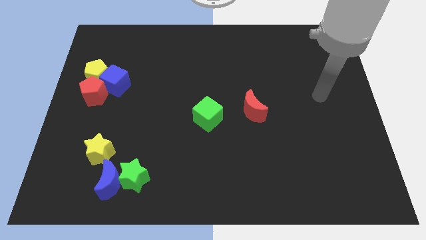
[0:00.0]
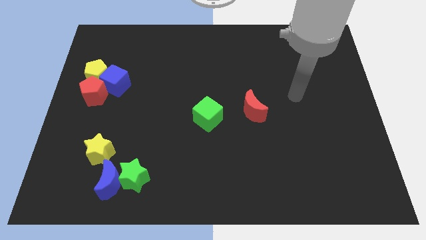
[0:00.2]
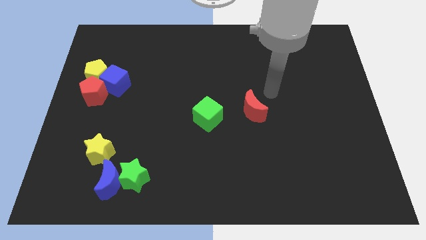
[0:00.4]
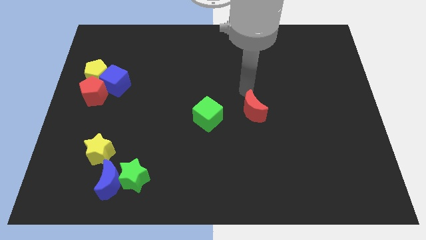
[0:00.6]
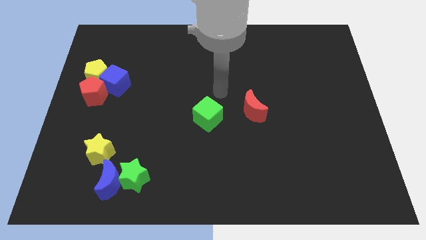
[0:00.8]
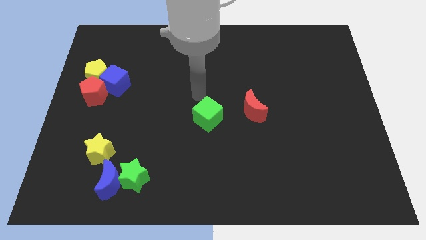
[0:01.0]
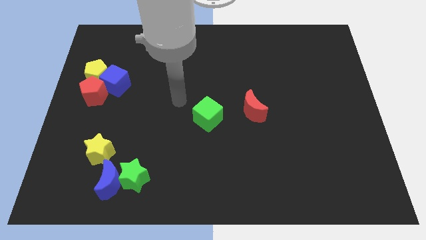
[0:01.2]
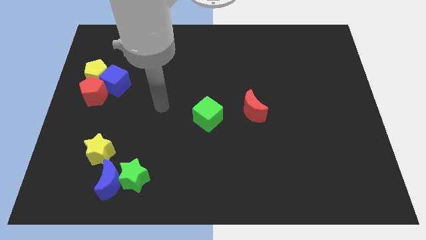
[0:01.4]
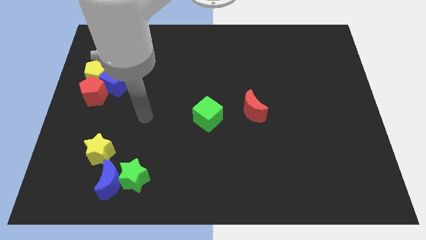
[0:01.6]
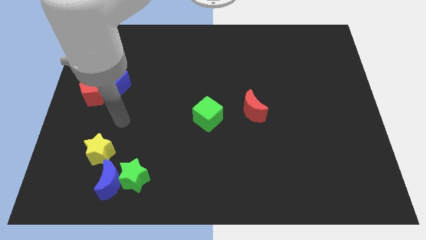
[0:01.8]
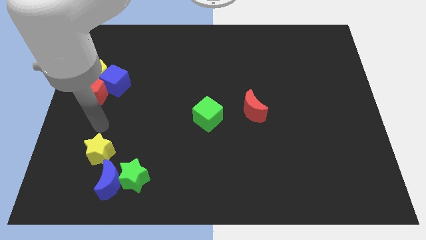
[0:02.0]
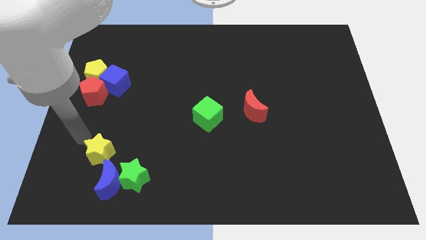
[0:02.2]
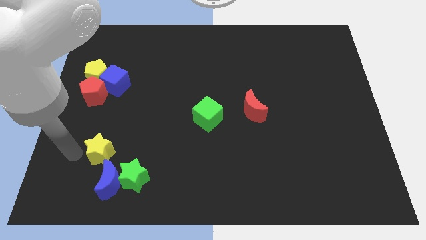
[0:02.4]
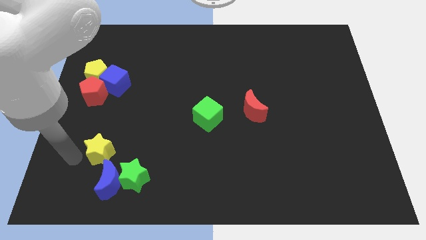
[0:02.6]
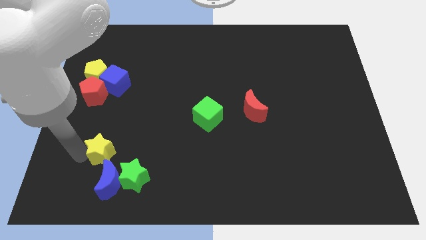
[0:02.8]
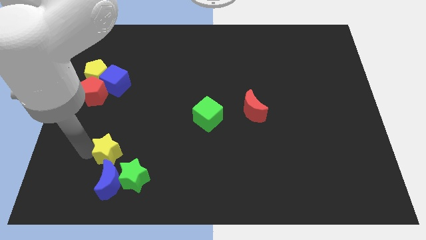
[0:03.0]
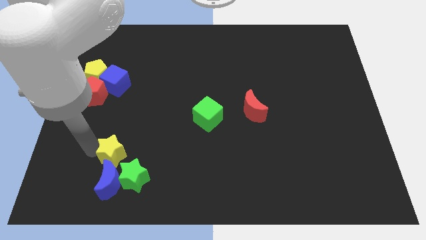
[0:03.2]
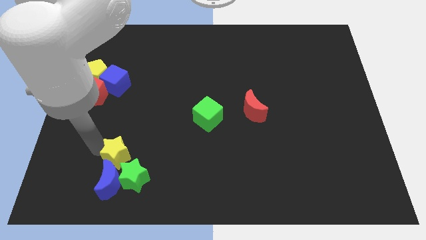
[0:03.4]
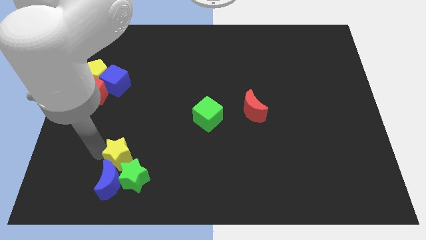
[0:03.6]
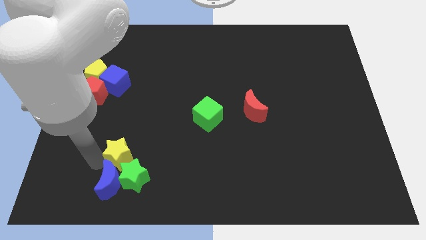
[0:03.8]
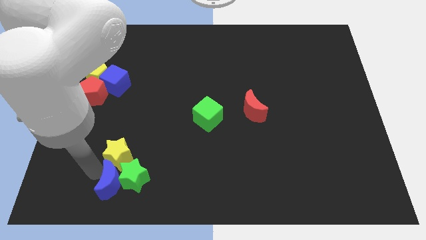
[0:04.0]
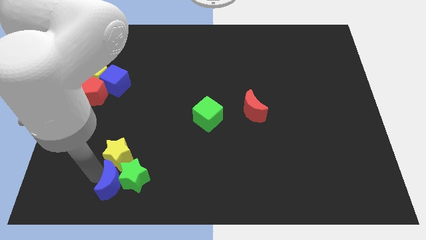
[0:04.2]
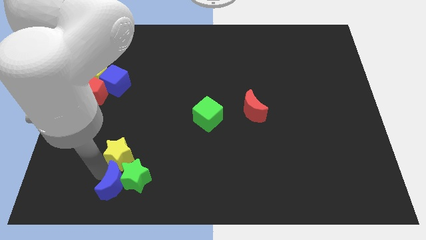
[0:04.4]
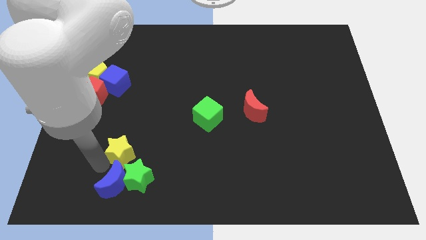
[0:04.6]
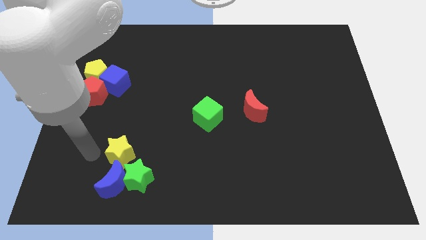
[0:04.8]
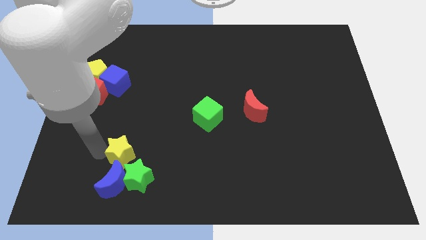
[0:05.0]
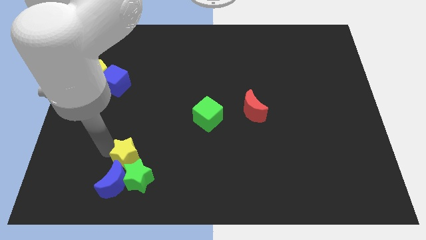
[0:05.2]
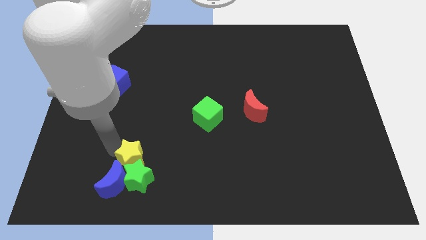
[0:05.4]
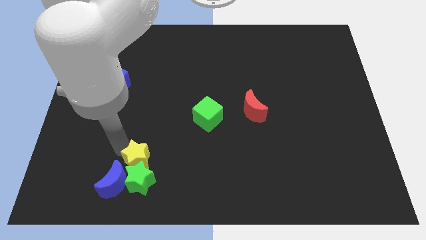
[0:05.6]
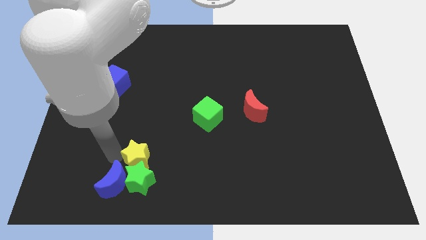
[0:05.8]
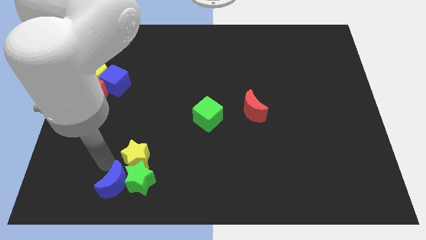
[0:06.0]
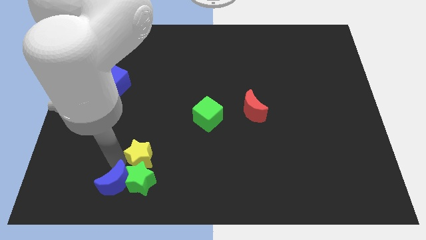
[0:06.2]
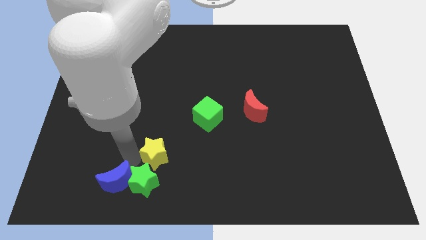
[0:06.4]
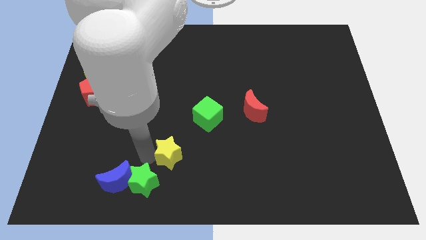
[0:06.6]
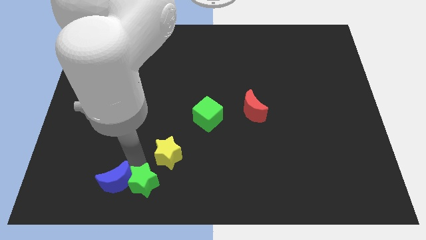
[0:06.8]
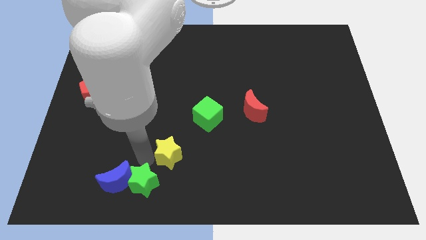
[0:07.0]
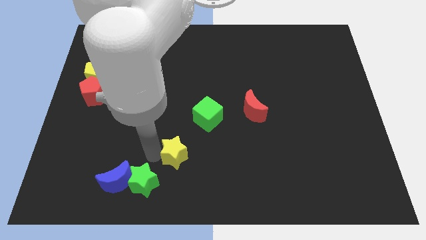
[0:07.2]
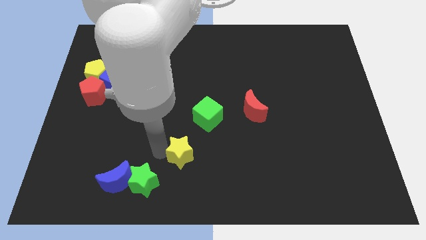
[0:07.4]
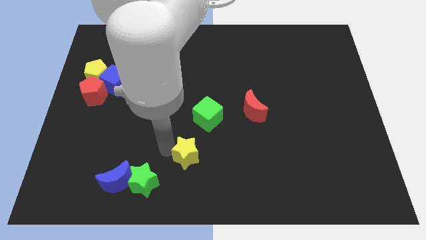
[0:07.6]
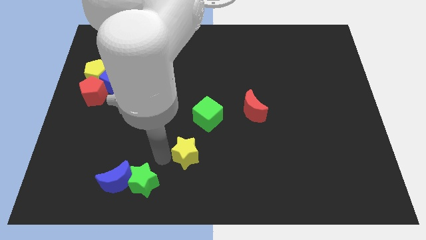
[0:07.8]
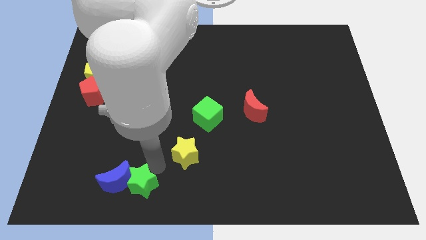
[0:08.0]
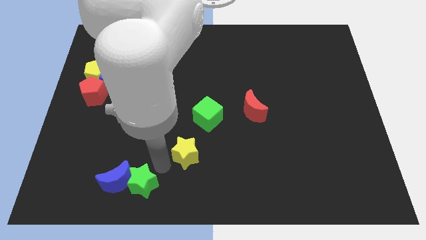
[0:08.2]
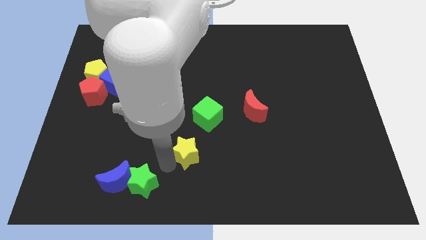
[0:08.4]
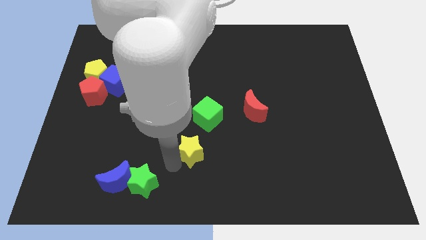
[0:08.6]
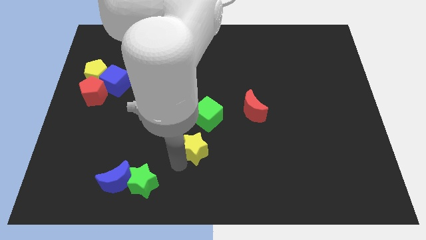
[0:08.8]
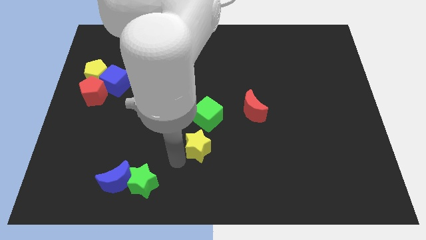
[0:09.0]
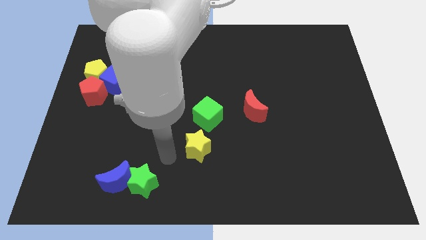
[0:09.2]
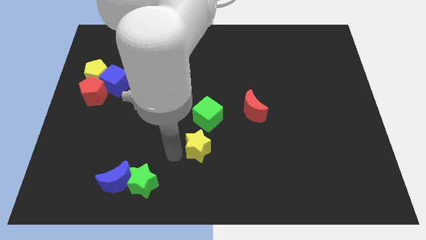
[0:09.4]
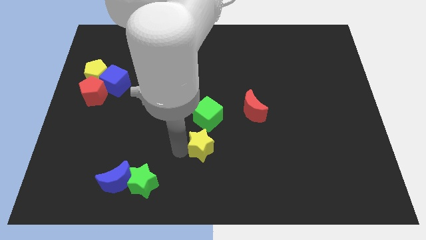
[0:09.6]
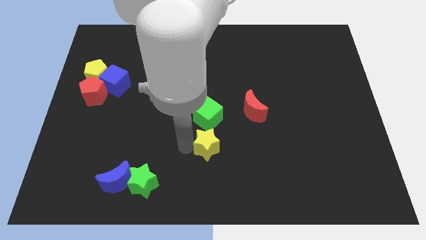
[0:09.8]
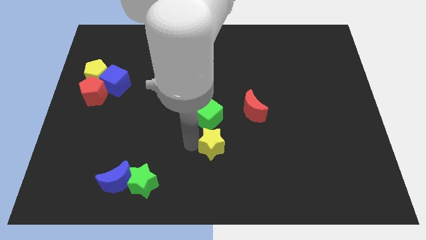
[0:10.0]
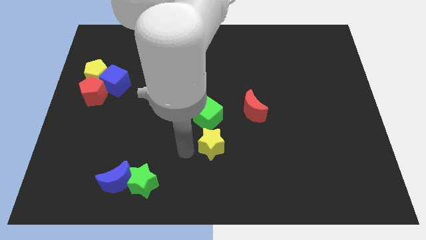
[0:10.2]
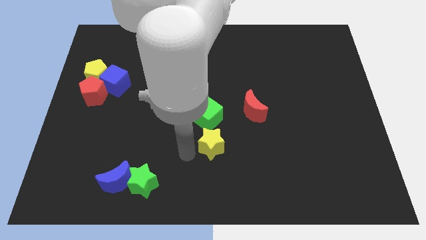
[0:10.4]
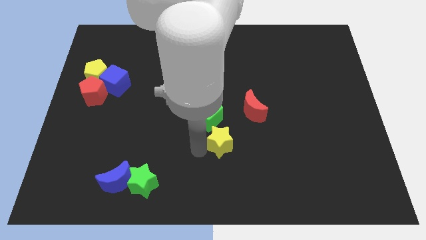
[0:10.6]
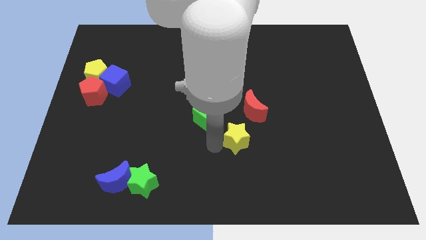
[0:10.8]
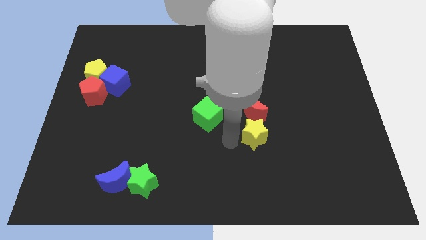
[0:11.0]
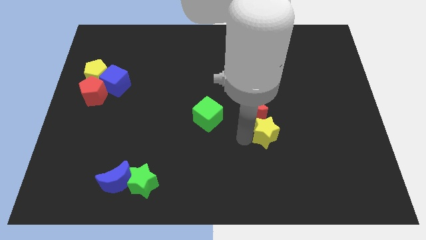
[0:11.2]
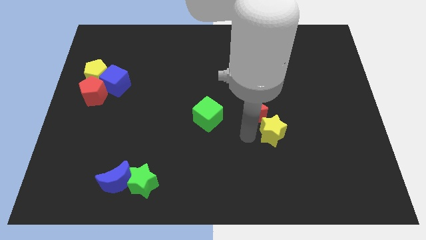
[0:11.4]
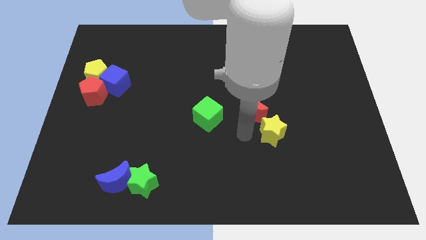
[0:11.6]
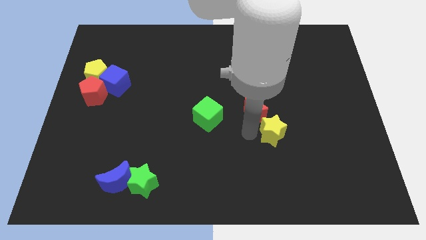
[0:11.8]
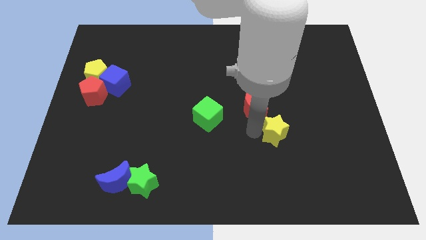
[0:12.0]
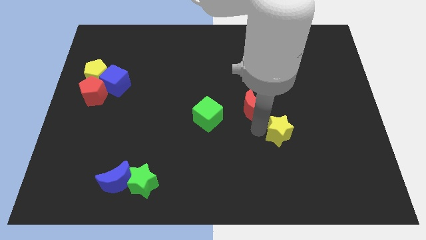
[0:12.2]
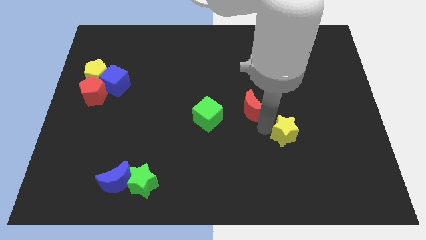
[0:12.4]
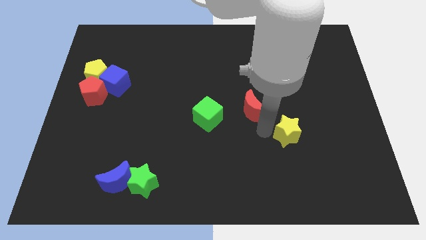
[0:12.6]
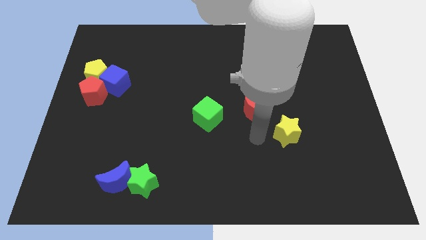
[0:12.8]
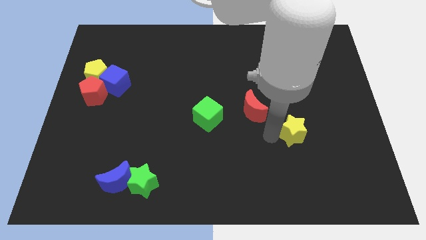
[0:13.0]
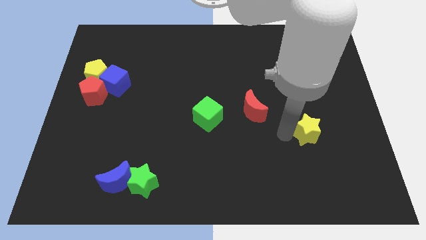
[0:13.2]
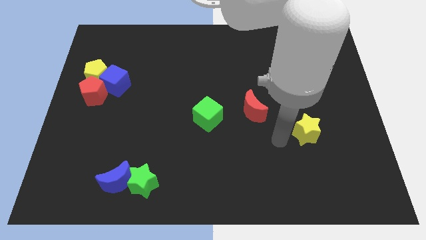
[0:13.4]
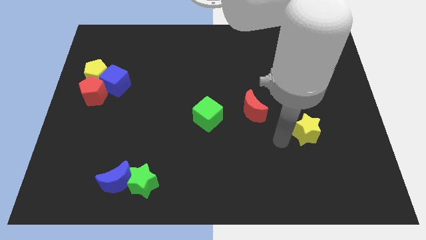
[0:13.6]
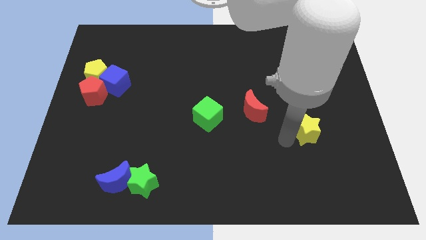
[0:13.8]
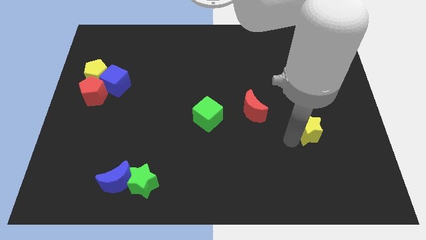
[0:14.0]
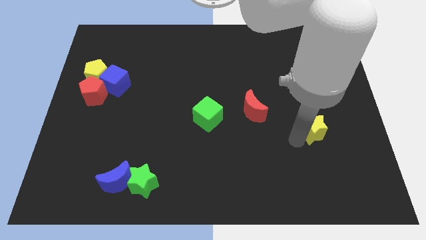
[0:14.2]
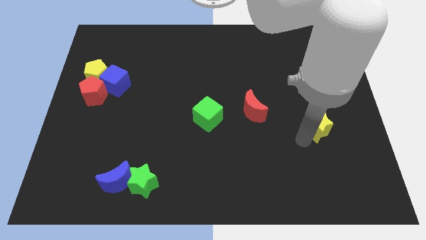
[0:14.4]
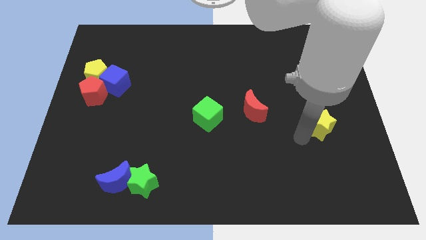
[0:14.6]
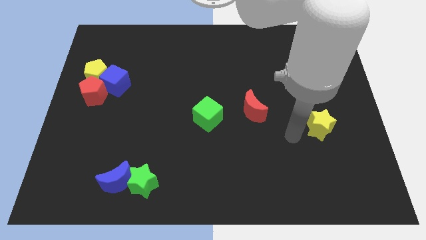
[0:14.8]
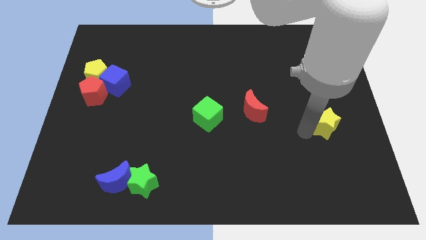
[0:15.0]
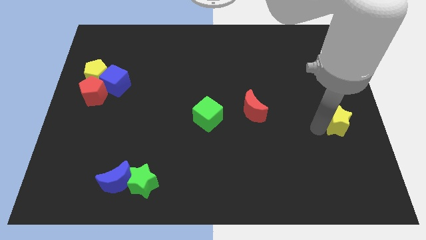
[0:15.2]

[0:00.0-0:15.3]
push the yellow star to the right side of the board
